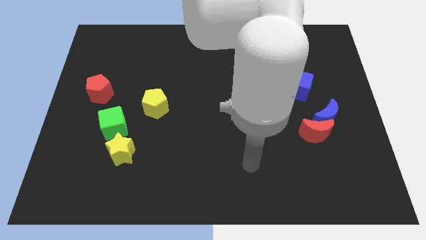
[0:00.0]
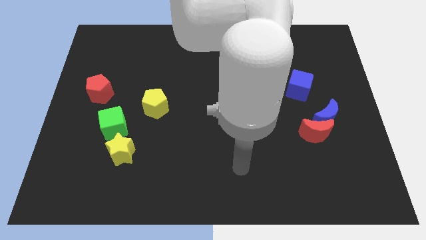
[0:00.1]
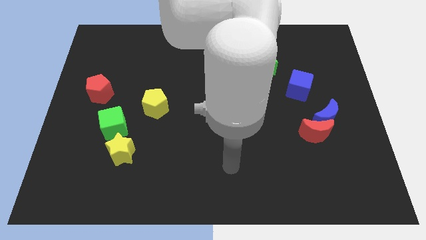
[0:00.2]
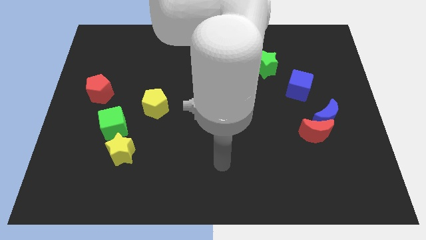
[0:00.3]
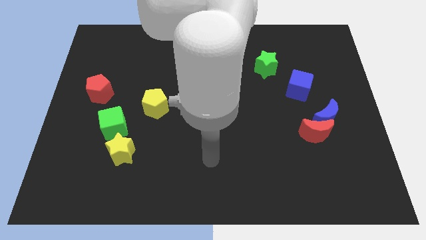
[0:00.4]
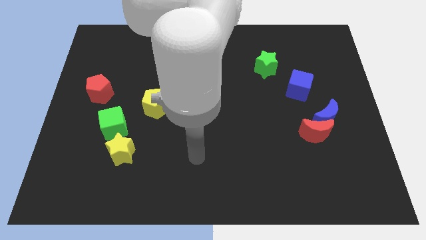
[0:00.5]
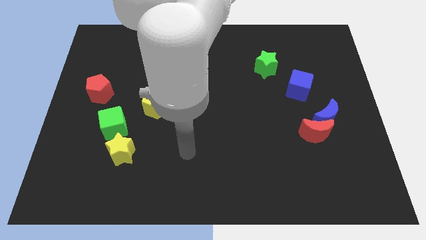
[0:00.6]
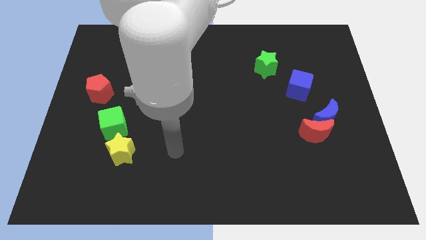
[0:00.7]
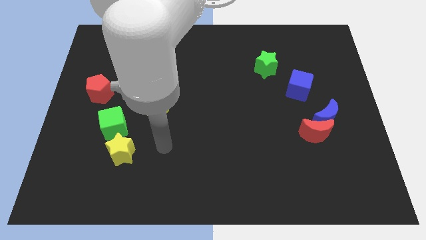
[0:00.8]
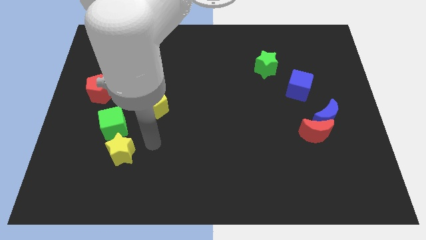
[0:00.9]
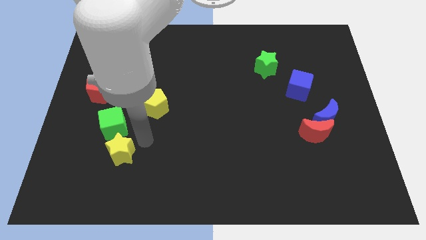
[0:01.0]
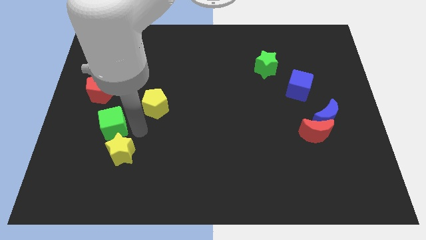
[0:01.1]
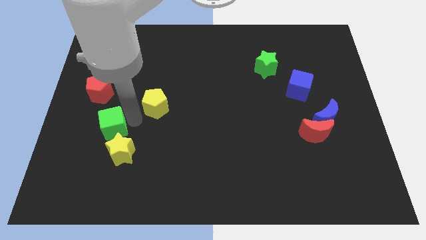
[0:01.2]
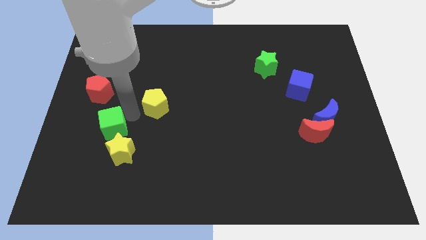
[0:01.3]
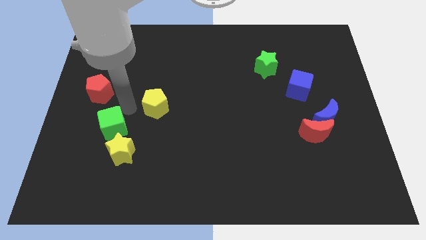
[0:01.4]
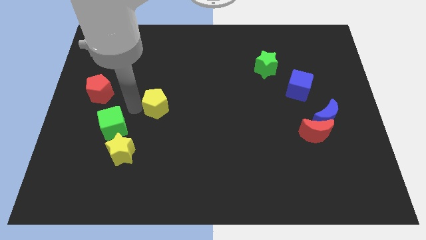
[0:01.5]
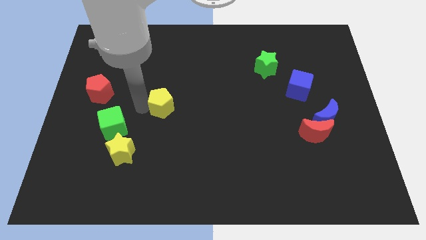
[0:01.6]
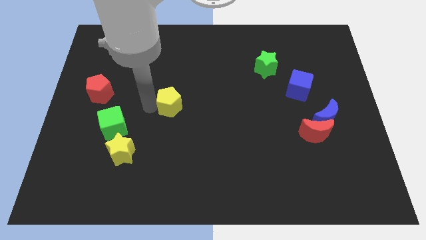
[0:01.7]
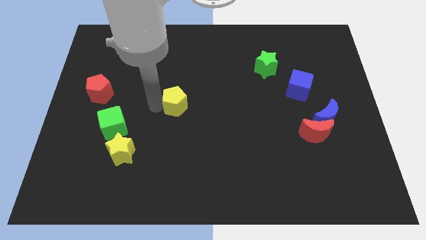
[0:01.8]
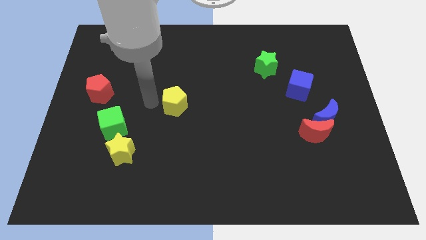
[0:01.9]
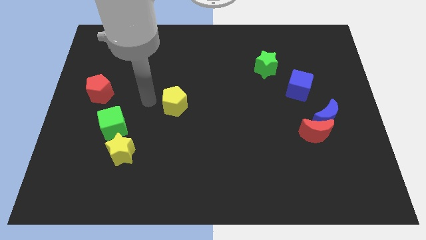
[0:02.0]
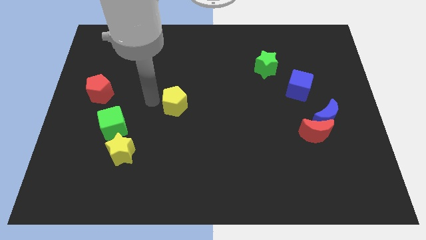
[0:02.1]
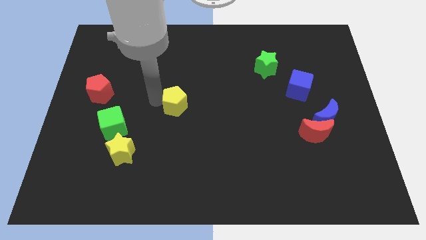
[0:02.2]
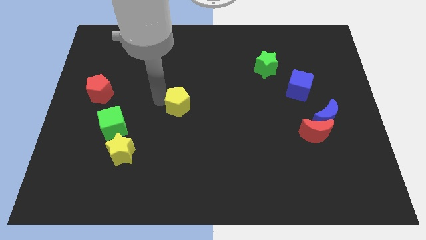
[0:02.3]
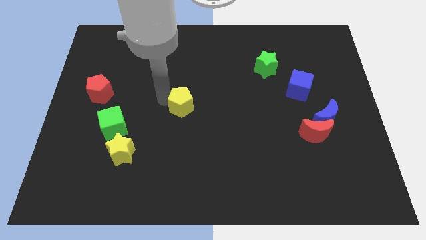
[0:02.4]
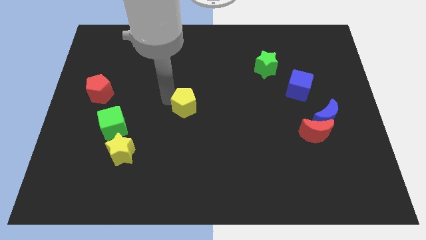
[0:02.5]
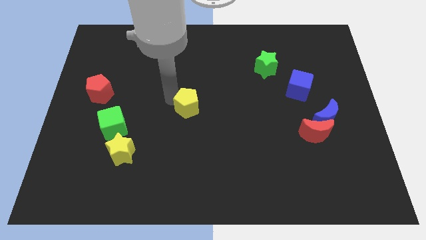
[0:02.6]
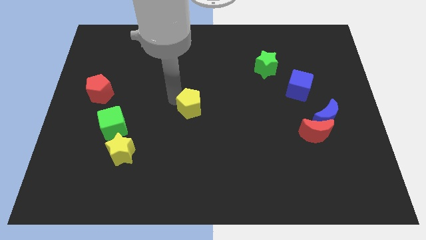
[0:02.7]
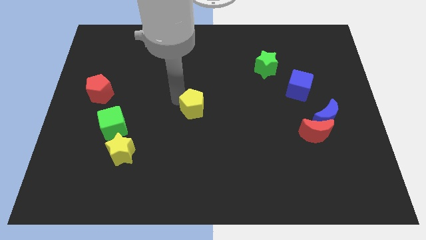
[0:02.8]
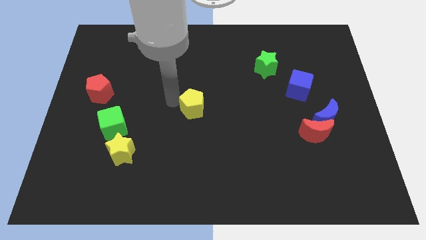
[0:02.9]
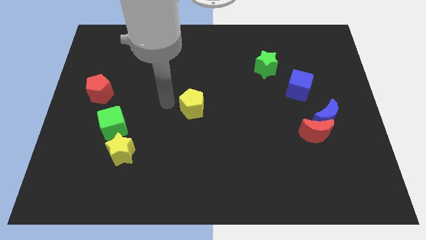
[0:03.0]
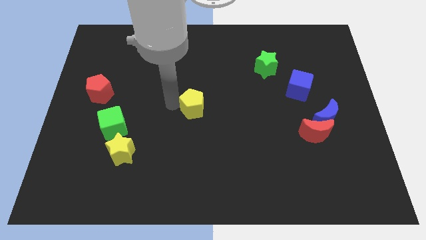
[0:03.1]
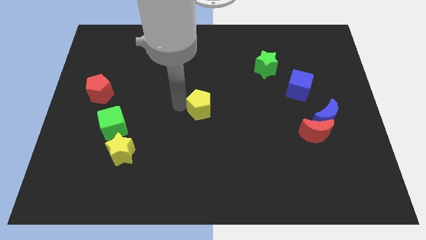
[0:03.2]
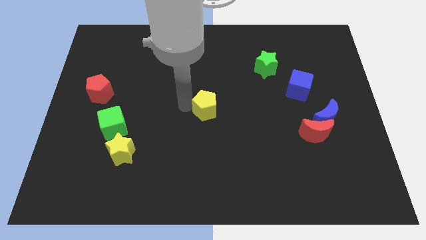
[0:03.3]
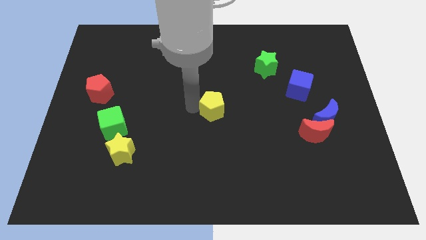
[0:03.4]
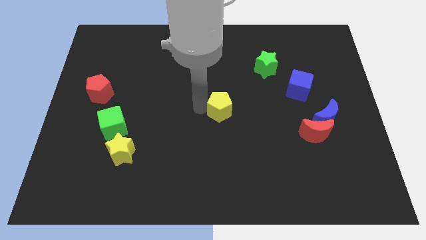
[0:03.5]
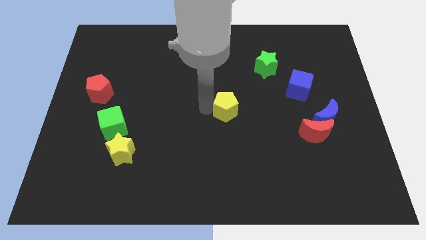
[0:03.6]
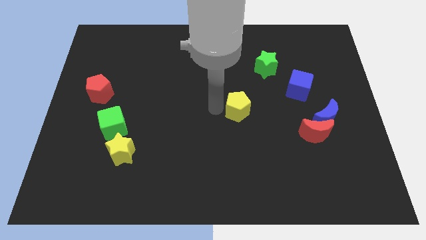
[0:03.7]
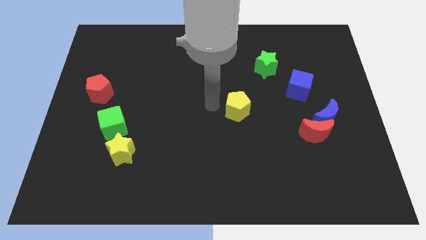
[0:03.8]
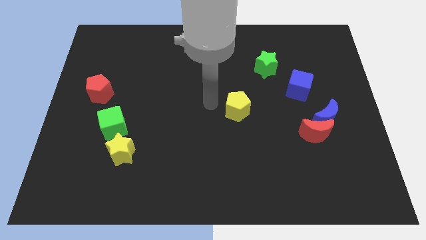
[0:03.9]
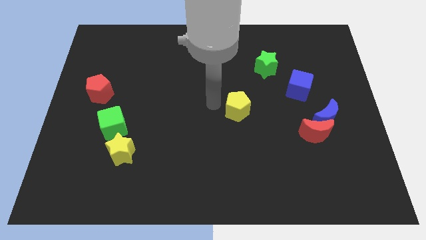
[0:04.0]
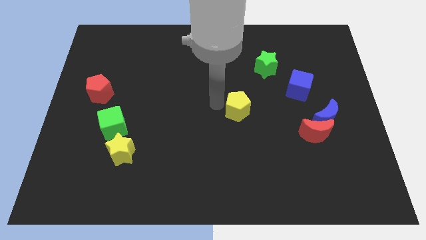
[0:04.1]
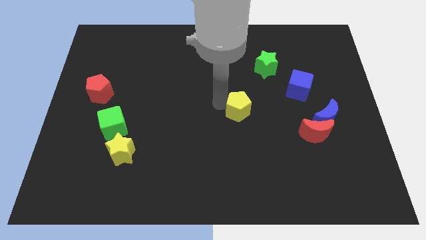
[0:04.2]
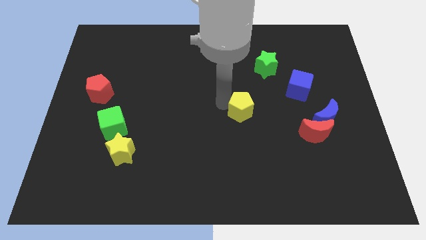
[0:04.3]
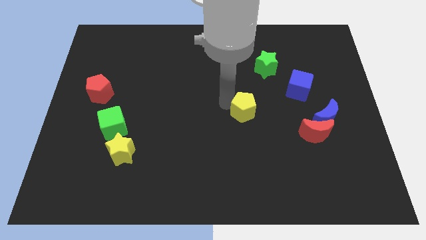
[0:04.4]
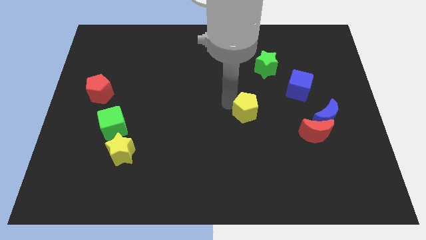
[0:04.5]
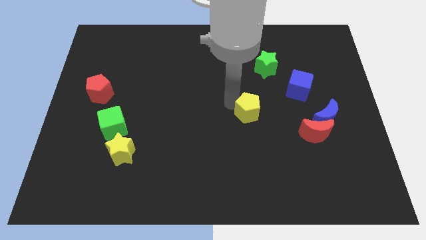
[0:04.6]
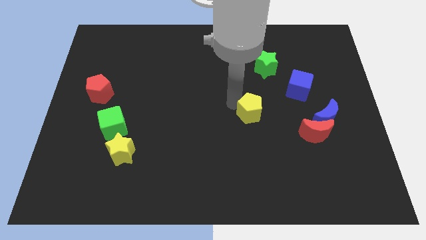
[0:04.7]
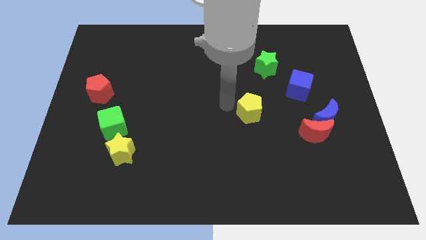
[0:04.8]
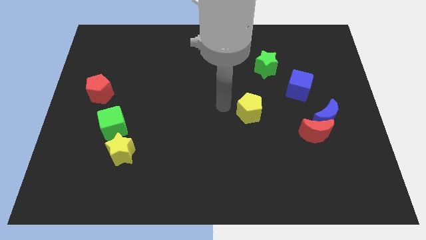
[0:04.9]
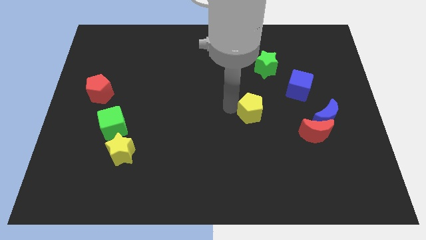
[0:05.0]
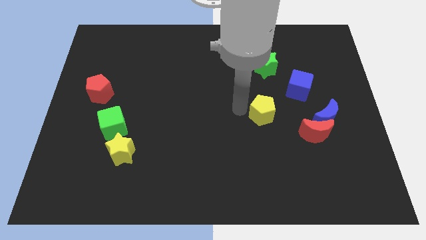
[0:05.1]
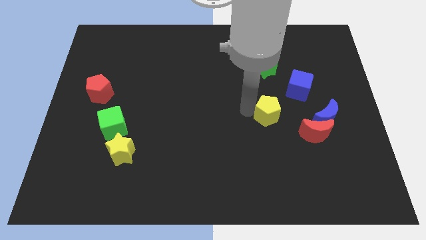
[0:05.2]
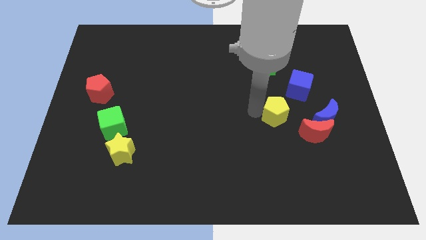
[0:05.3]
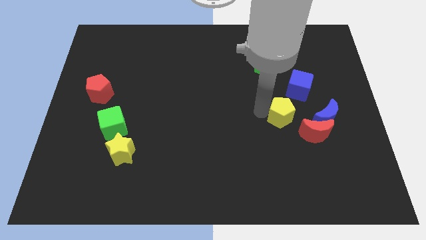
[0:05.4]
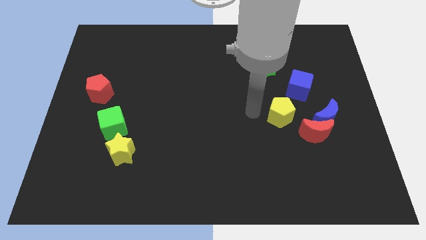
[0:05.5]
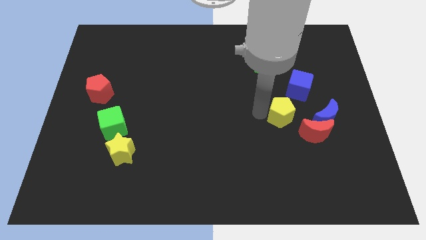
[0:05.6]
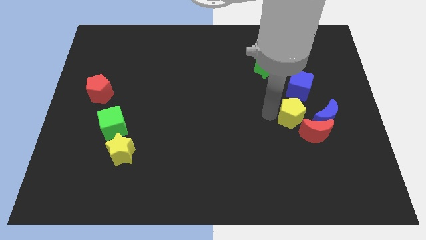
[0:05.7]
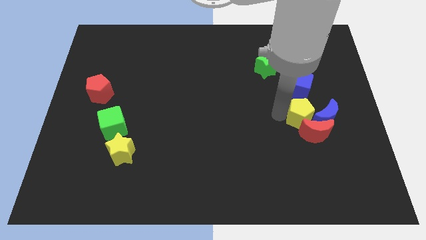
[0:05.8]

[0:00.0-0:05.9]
move the yellow pentagon close to the blue moon

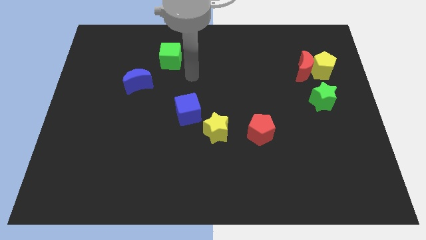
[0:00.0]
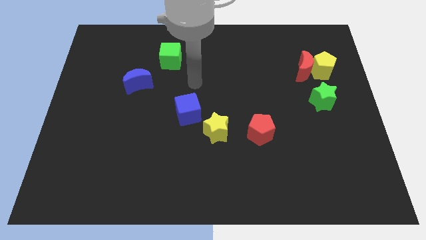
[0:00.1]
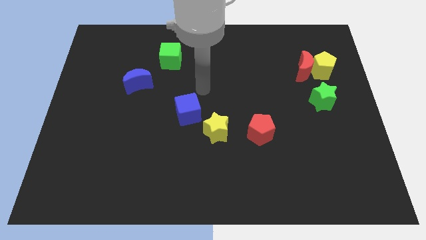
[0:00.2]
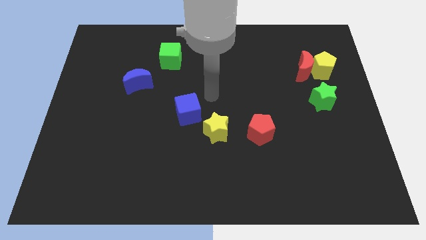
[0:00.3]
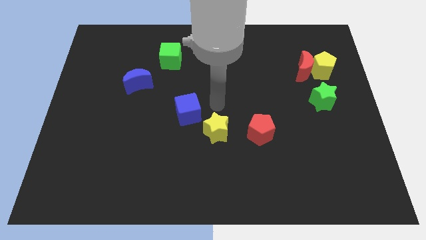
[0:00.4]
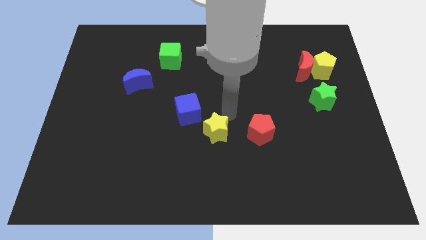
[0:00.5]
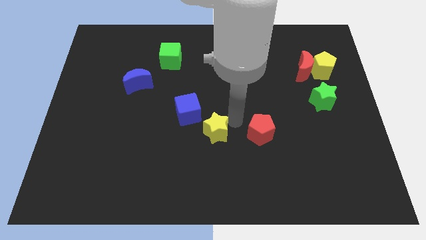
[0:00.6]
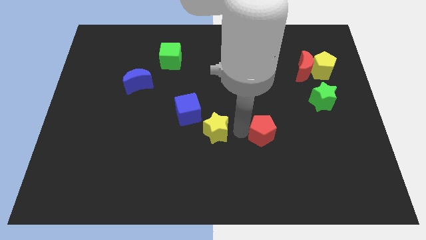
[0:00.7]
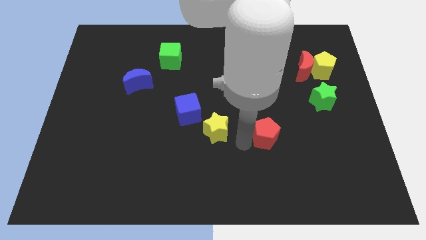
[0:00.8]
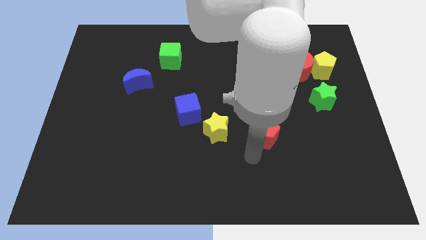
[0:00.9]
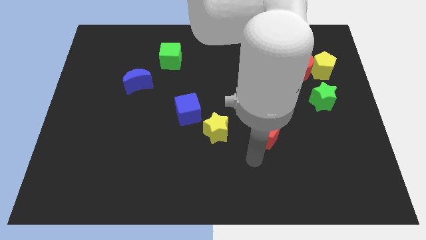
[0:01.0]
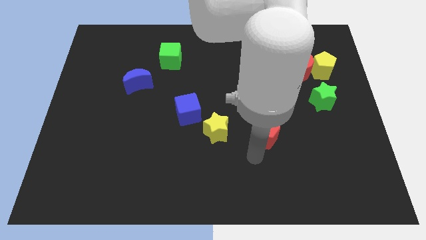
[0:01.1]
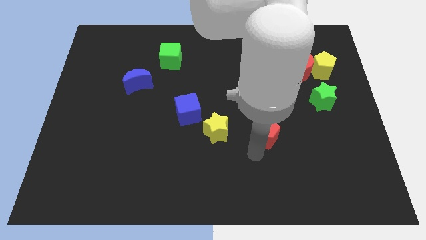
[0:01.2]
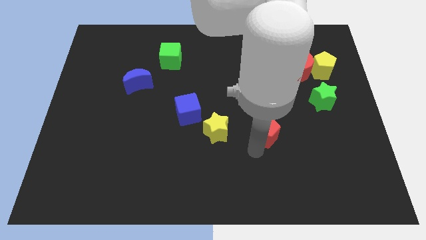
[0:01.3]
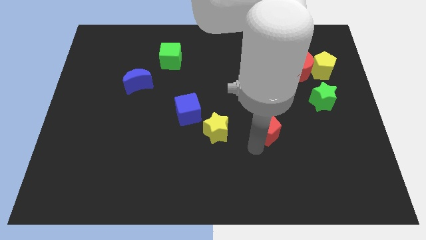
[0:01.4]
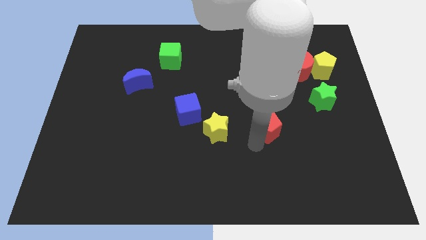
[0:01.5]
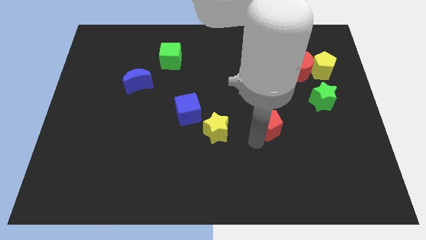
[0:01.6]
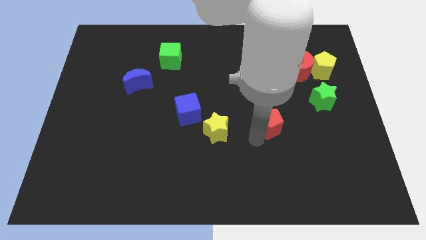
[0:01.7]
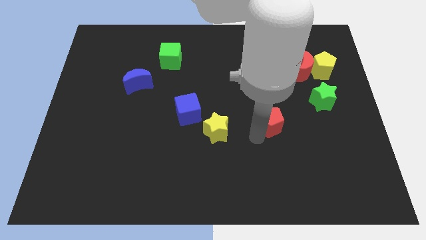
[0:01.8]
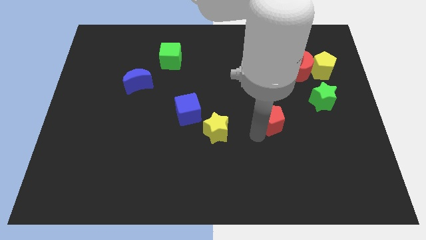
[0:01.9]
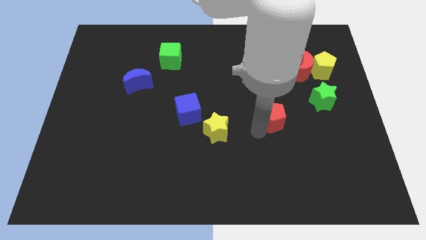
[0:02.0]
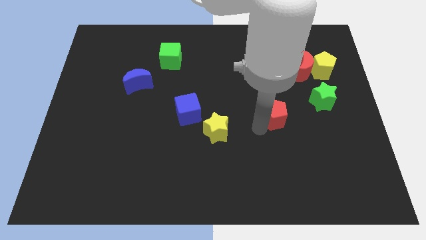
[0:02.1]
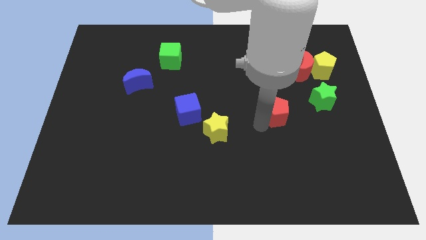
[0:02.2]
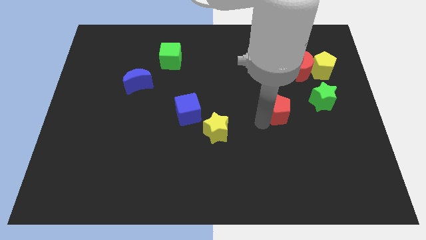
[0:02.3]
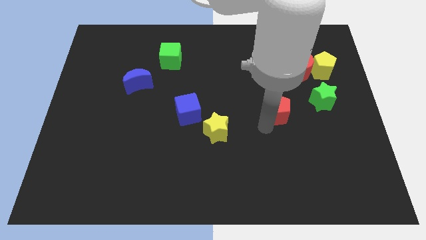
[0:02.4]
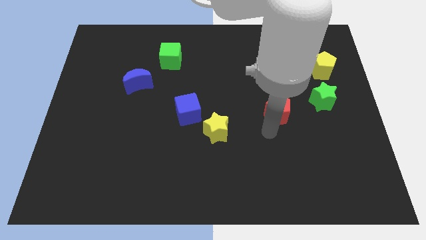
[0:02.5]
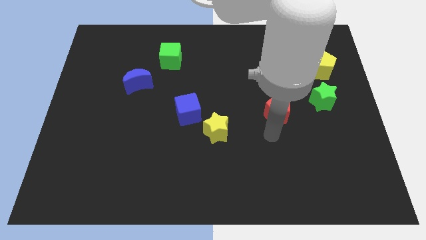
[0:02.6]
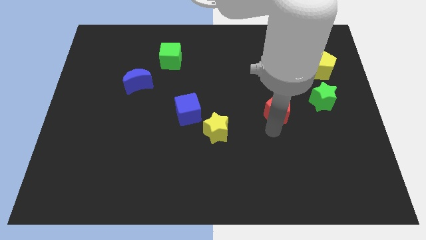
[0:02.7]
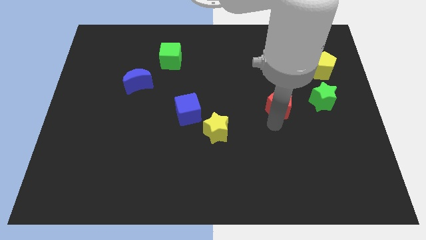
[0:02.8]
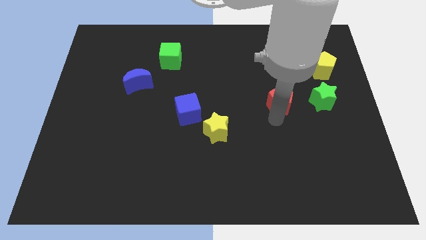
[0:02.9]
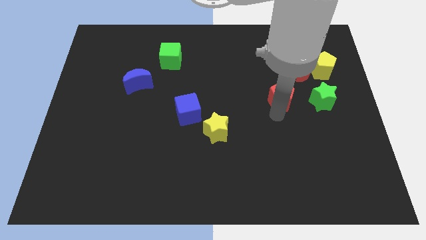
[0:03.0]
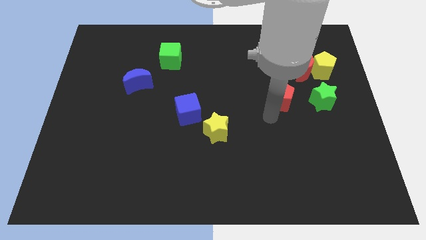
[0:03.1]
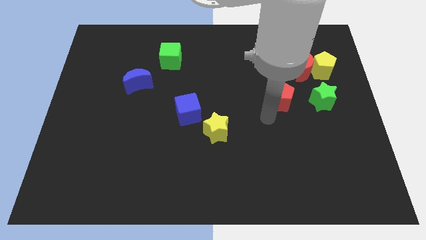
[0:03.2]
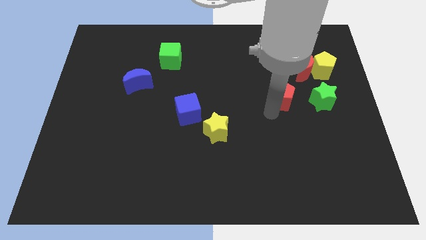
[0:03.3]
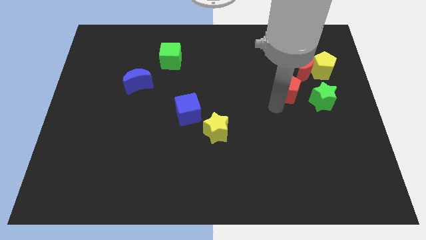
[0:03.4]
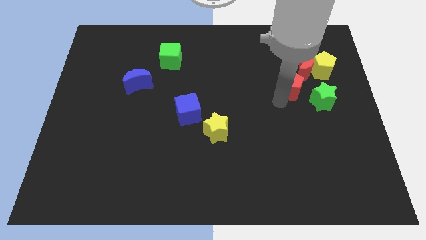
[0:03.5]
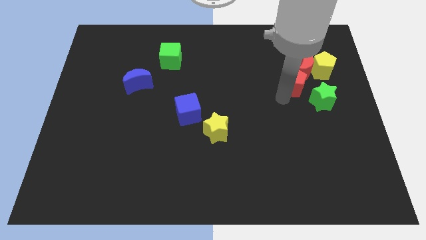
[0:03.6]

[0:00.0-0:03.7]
push the red pentagon next to the red moon
